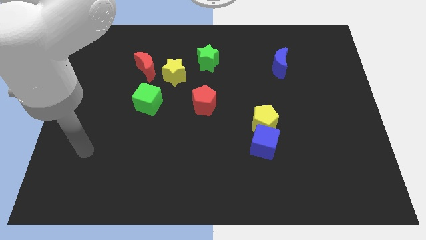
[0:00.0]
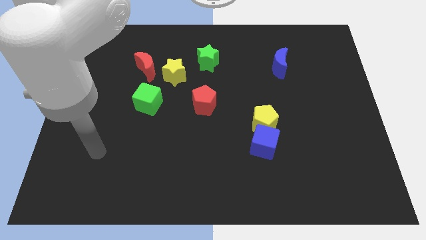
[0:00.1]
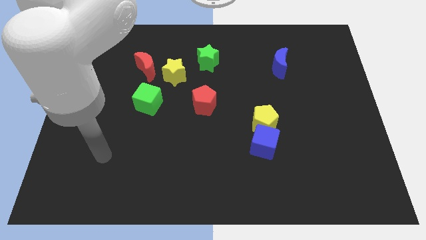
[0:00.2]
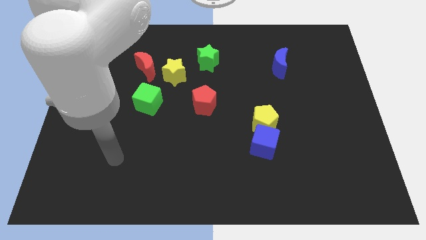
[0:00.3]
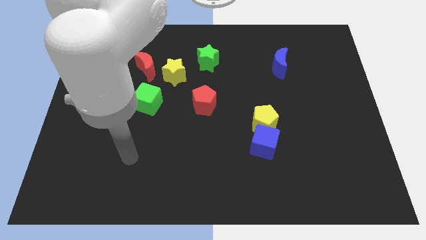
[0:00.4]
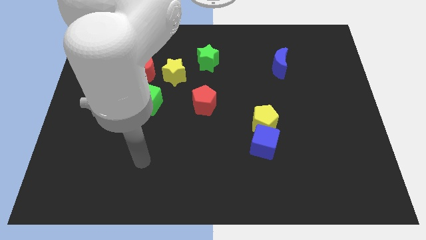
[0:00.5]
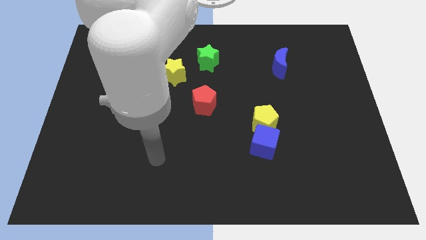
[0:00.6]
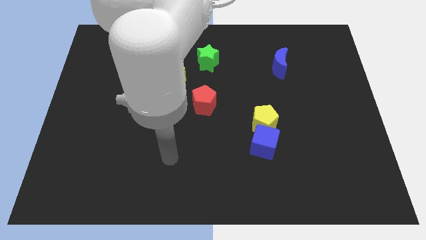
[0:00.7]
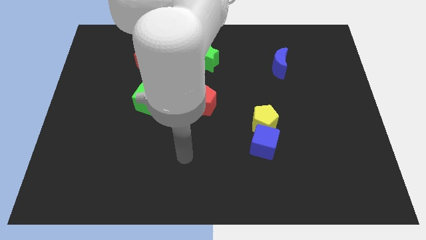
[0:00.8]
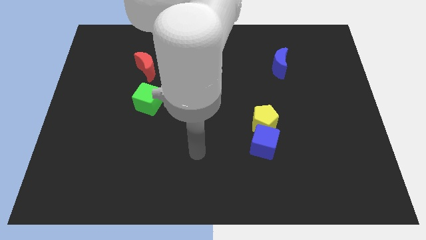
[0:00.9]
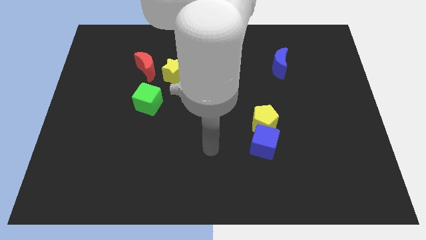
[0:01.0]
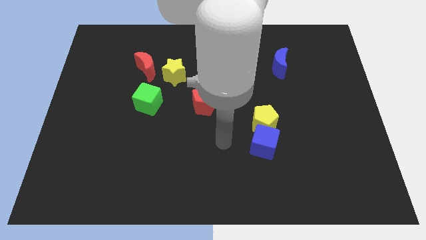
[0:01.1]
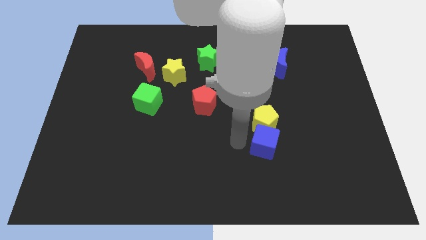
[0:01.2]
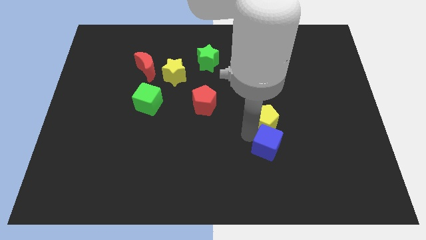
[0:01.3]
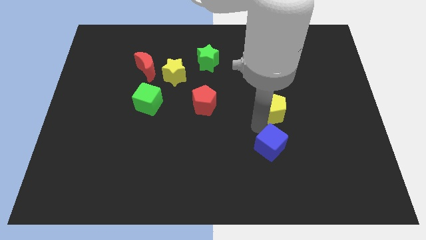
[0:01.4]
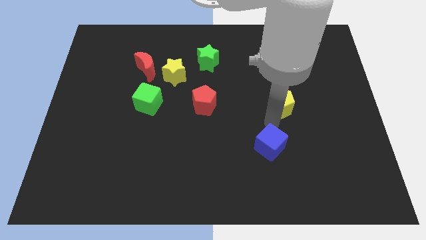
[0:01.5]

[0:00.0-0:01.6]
move the blue cube away from the yellow pentagon

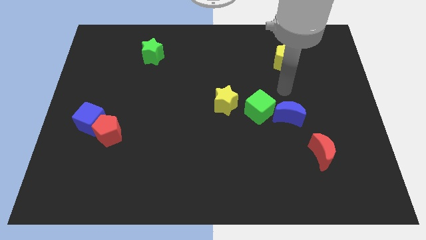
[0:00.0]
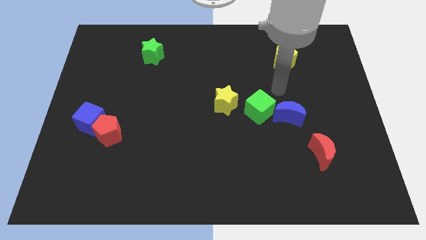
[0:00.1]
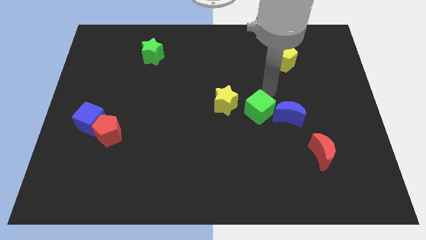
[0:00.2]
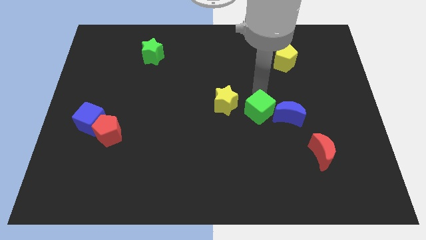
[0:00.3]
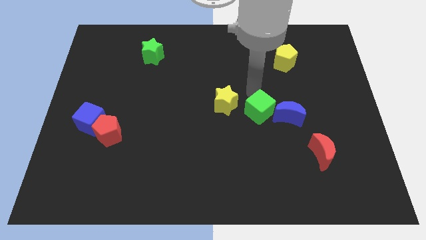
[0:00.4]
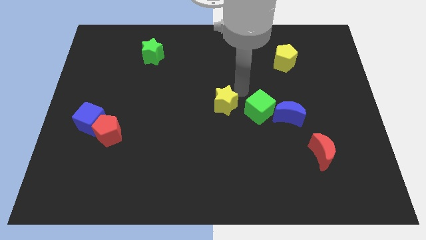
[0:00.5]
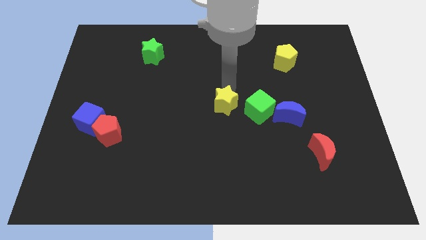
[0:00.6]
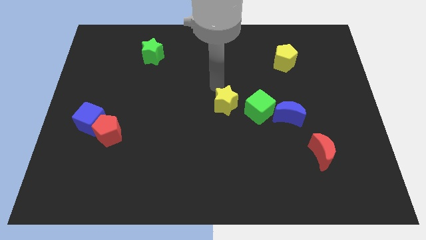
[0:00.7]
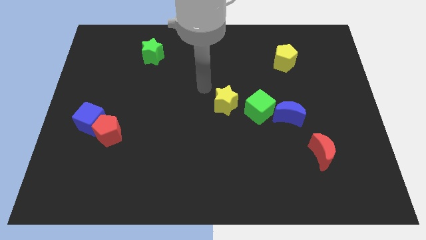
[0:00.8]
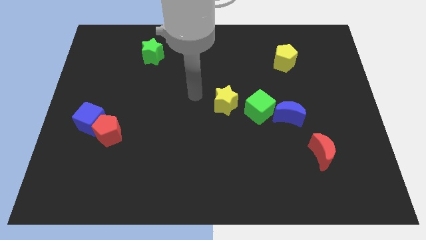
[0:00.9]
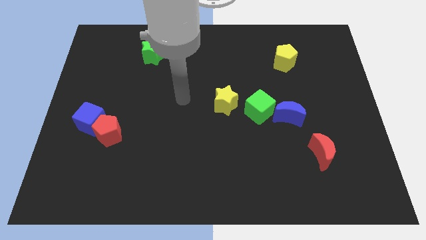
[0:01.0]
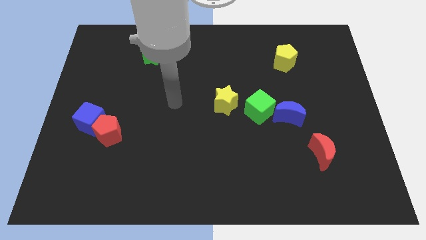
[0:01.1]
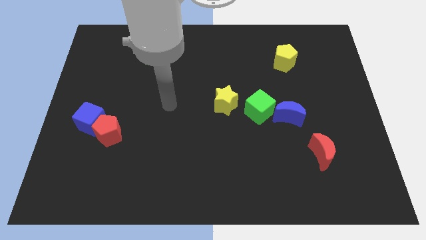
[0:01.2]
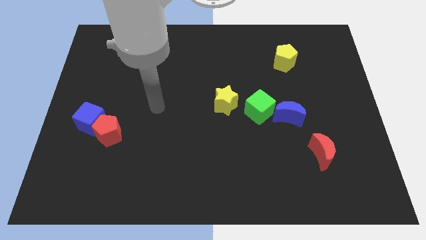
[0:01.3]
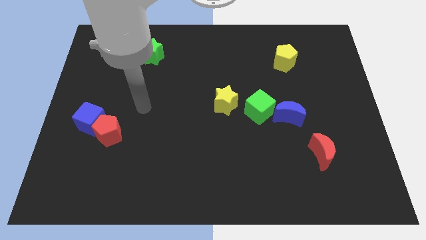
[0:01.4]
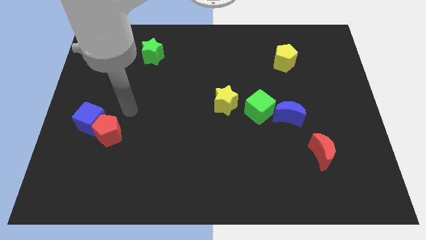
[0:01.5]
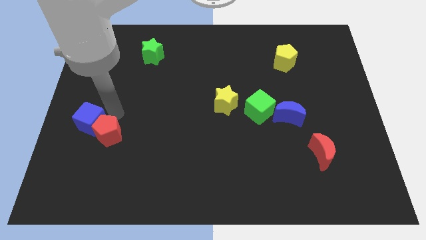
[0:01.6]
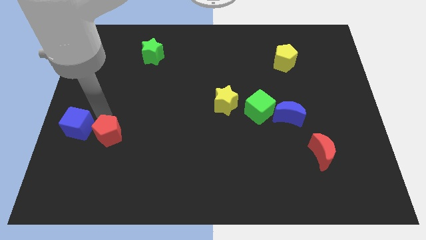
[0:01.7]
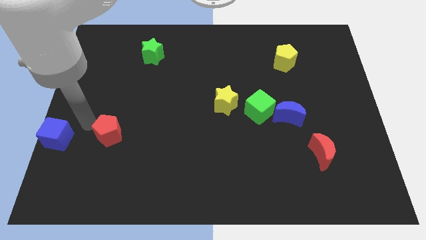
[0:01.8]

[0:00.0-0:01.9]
separate the red pentagon from the blue cube

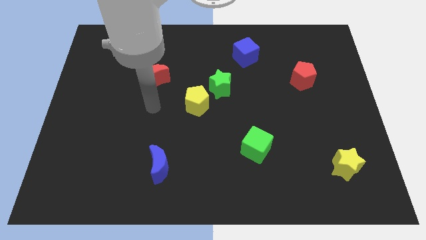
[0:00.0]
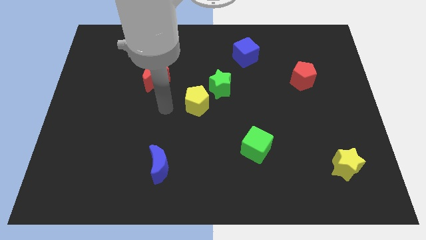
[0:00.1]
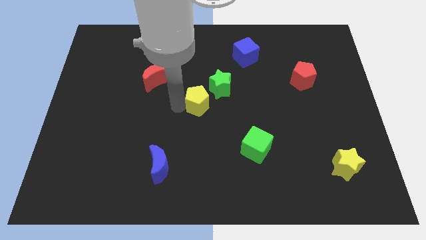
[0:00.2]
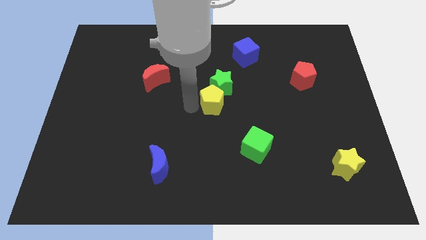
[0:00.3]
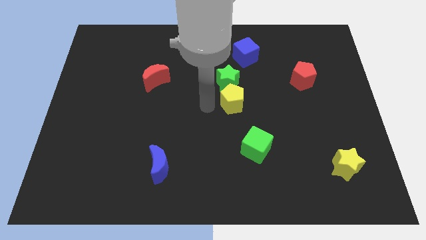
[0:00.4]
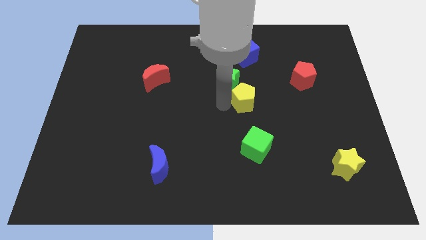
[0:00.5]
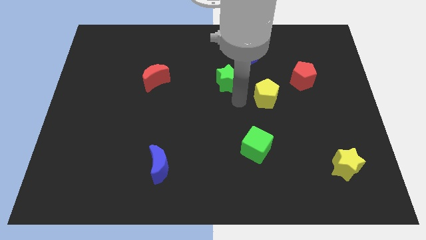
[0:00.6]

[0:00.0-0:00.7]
pull the green star apart from the yellow pentagon

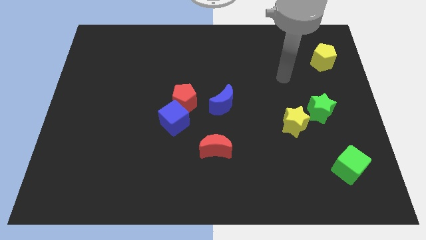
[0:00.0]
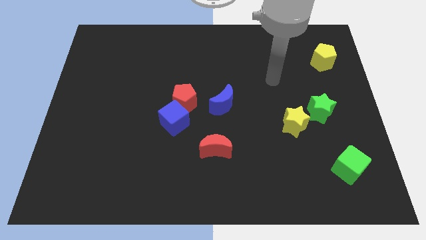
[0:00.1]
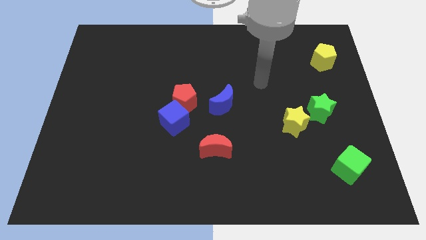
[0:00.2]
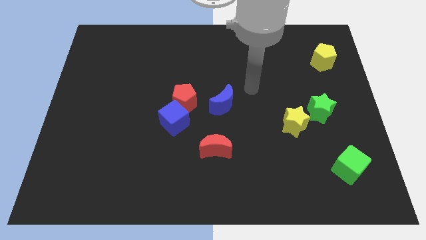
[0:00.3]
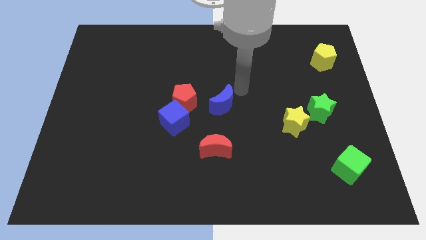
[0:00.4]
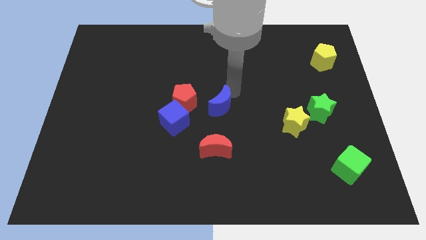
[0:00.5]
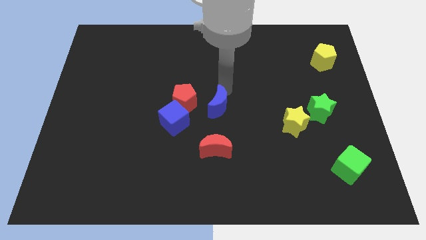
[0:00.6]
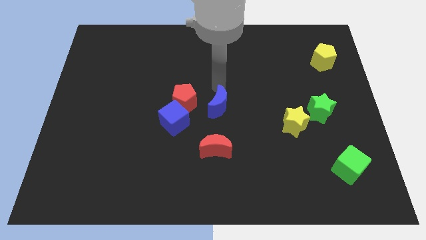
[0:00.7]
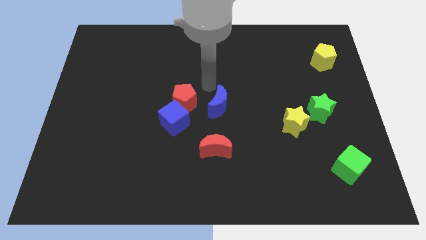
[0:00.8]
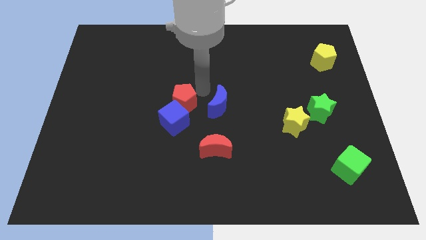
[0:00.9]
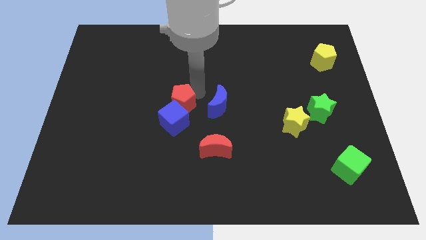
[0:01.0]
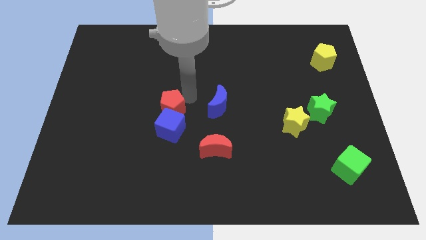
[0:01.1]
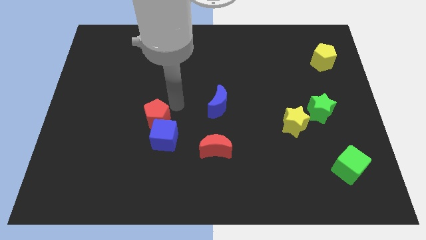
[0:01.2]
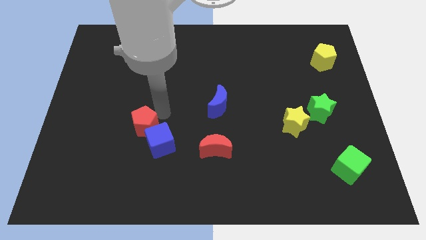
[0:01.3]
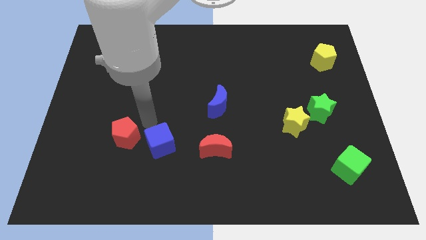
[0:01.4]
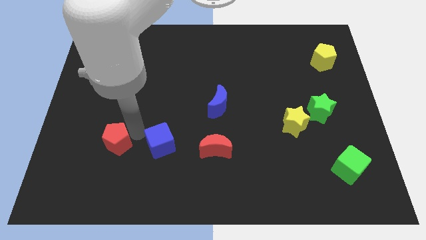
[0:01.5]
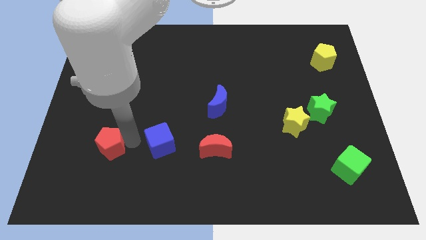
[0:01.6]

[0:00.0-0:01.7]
separate the blue cube from the red pentagon

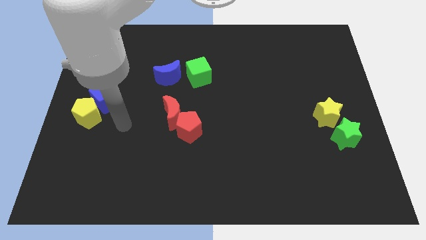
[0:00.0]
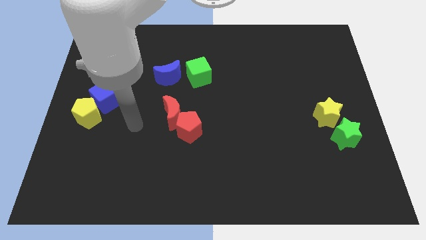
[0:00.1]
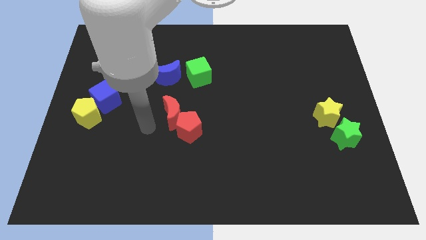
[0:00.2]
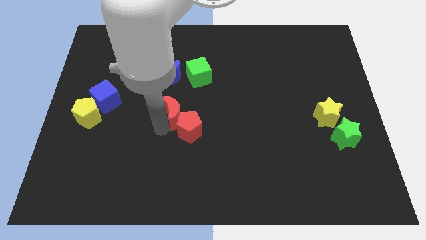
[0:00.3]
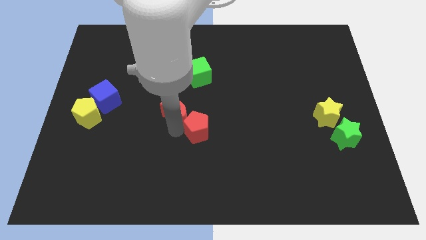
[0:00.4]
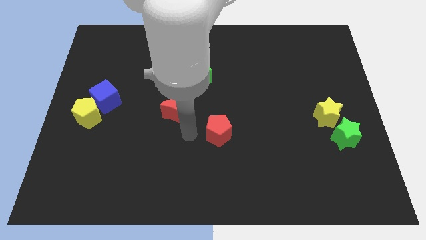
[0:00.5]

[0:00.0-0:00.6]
separate the red moon from the red pentagon

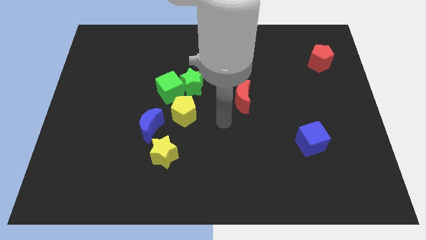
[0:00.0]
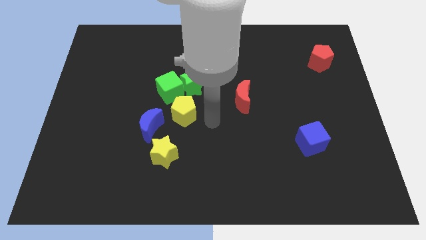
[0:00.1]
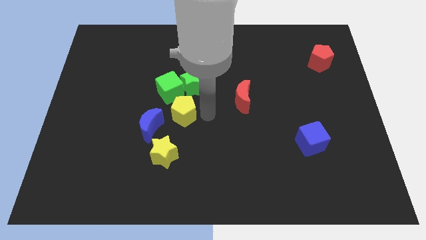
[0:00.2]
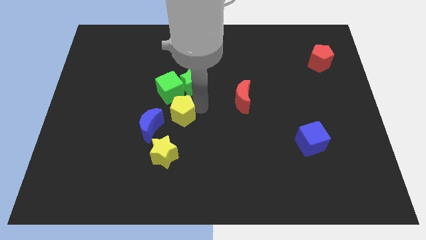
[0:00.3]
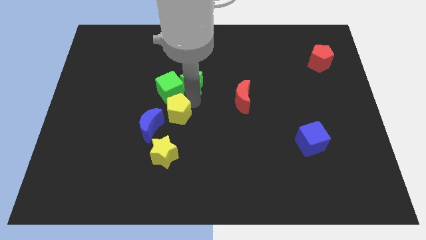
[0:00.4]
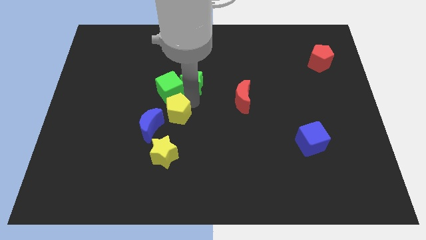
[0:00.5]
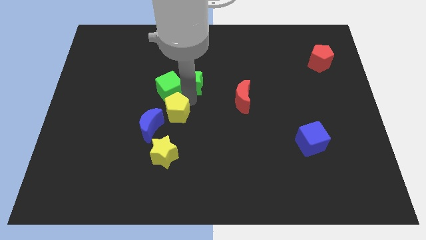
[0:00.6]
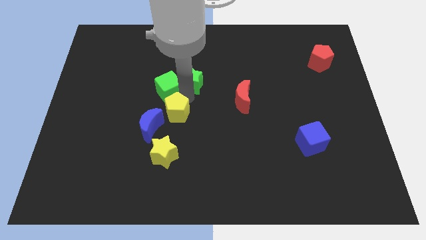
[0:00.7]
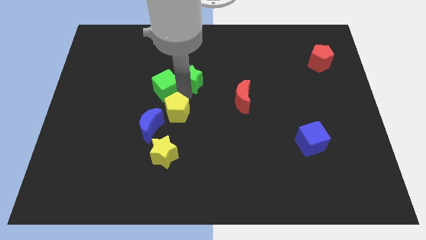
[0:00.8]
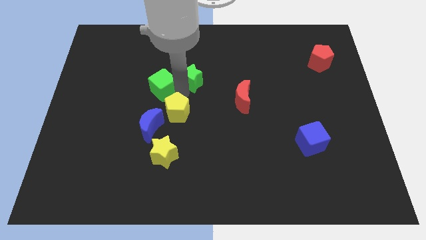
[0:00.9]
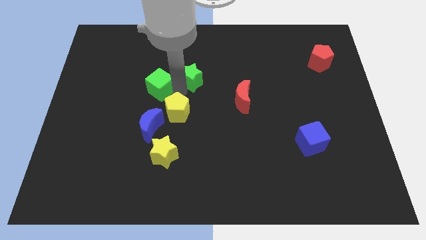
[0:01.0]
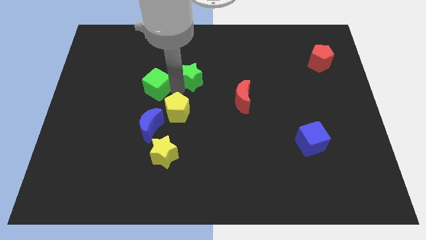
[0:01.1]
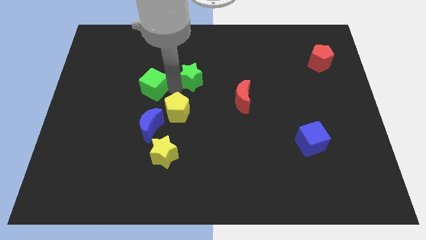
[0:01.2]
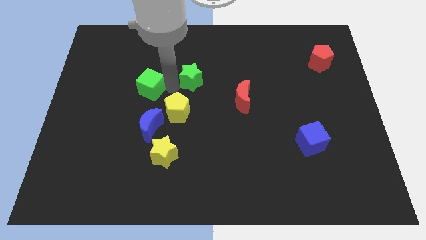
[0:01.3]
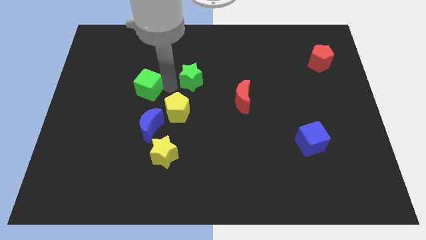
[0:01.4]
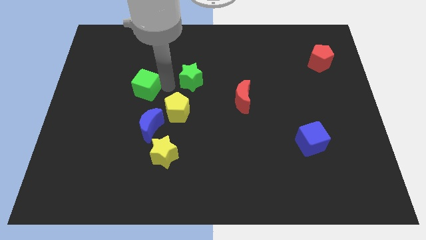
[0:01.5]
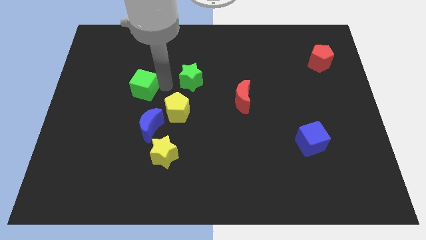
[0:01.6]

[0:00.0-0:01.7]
separate the green cube from the green star and yellow pentagon

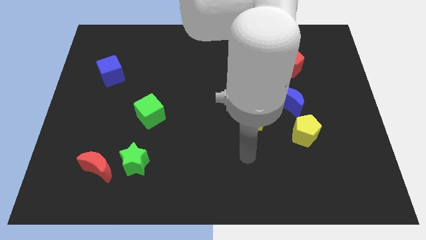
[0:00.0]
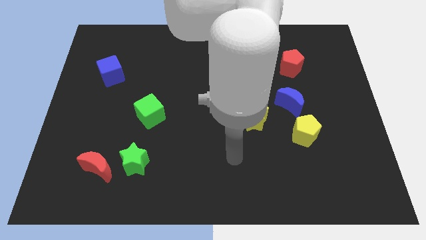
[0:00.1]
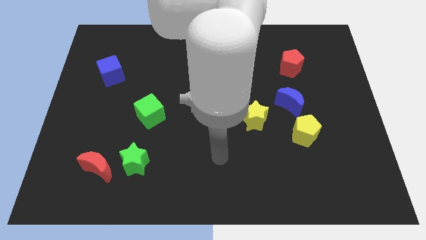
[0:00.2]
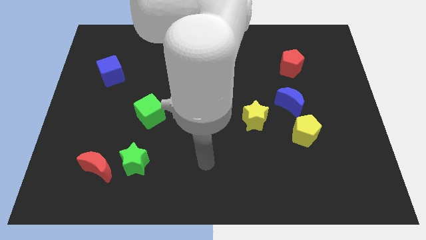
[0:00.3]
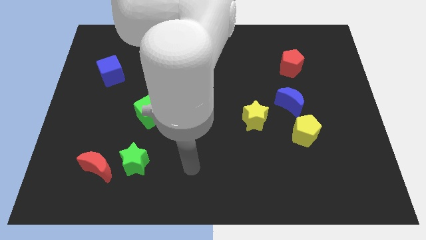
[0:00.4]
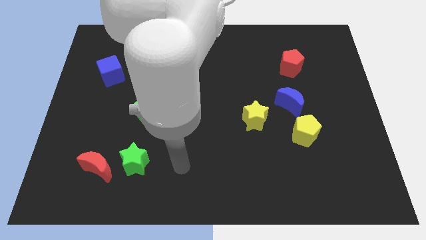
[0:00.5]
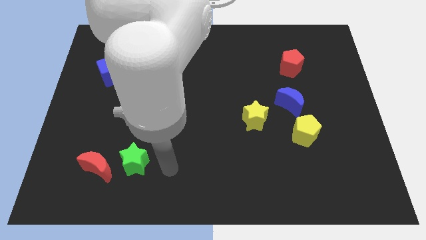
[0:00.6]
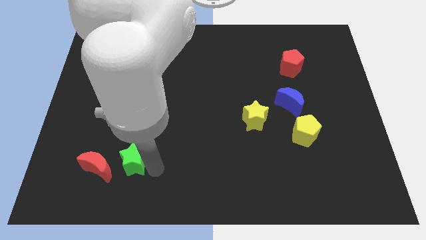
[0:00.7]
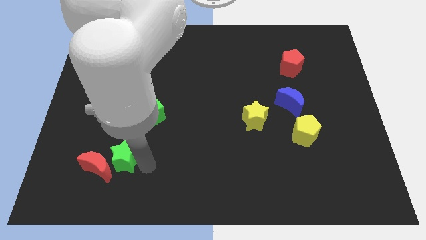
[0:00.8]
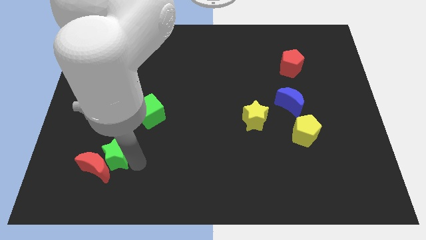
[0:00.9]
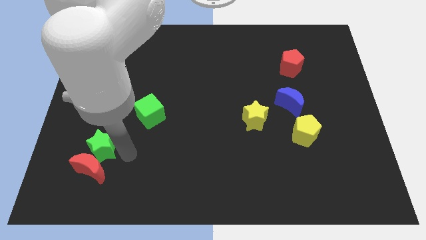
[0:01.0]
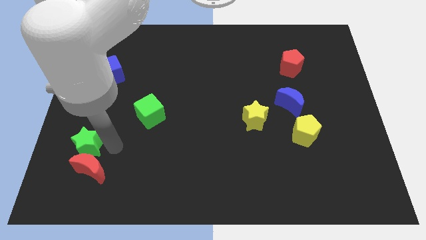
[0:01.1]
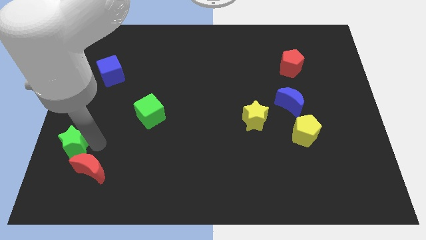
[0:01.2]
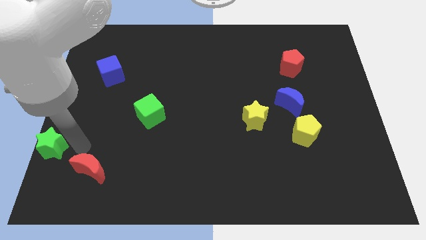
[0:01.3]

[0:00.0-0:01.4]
pull the red moon apart from the green star
